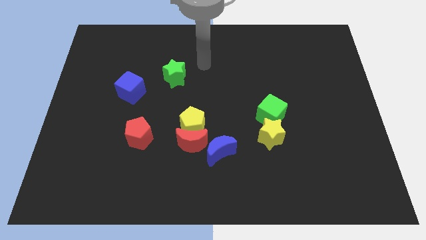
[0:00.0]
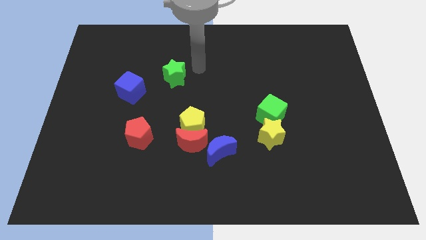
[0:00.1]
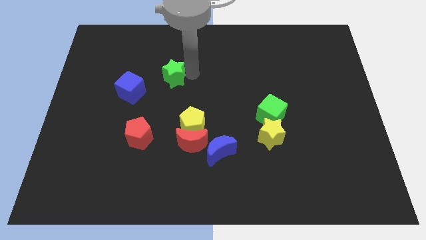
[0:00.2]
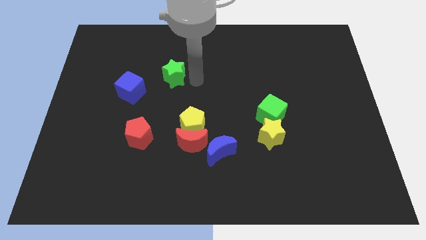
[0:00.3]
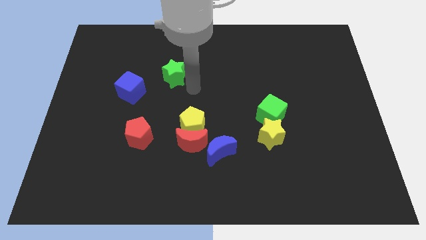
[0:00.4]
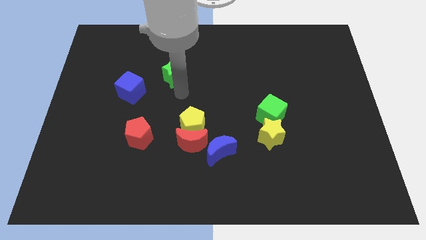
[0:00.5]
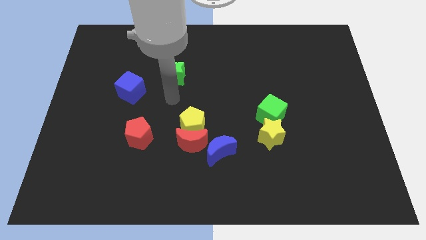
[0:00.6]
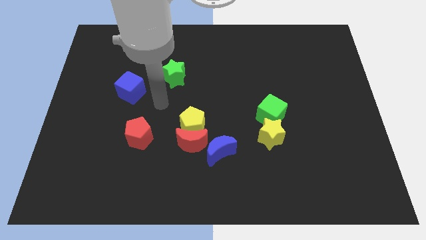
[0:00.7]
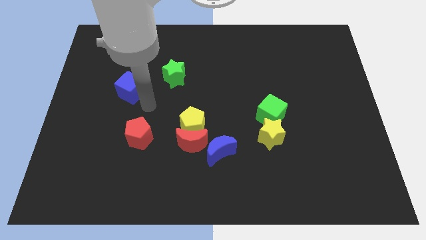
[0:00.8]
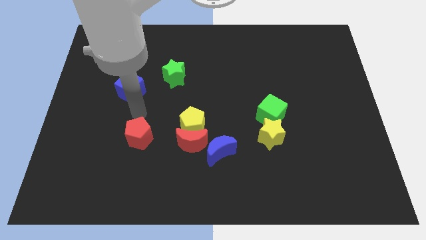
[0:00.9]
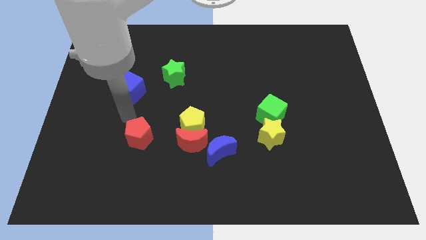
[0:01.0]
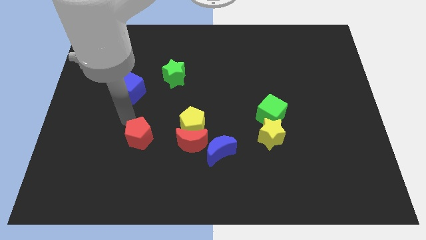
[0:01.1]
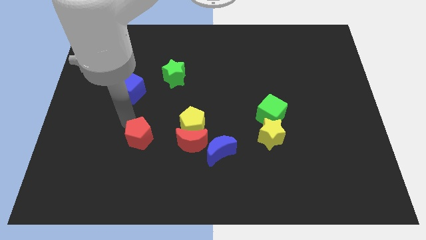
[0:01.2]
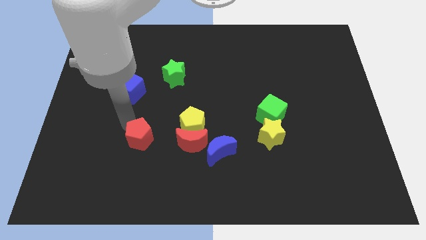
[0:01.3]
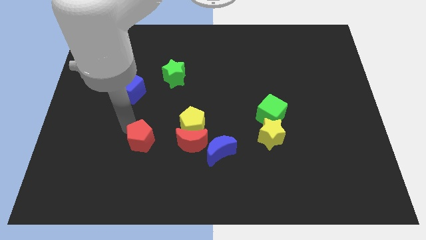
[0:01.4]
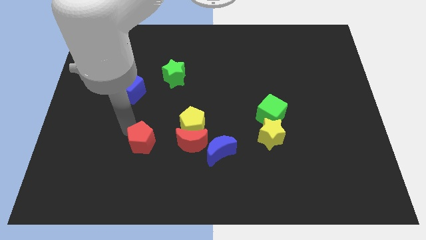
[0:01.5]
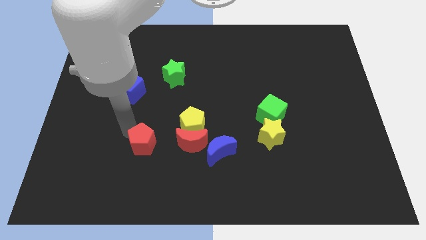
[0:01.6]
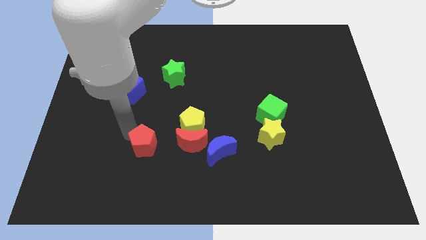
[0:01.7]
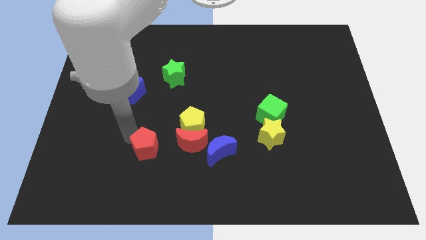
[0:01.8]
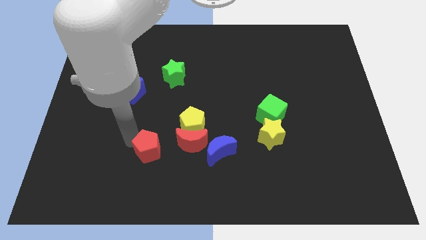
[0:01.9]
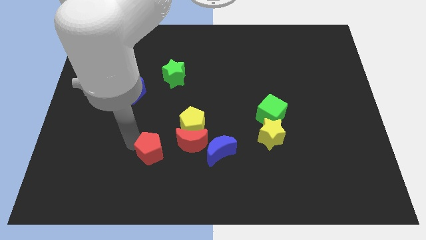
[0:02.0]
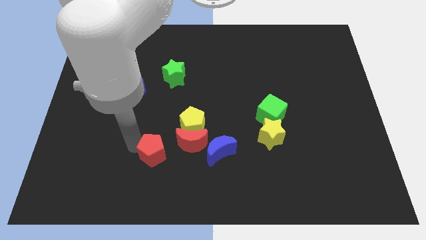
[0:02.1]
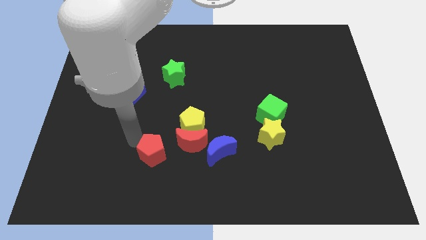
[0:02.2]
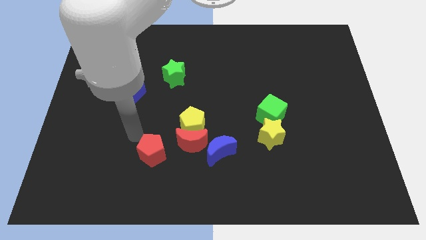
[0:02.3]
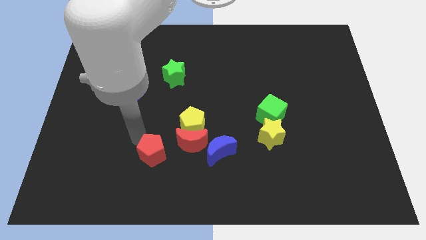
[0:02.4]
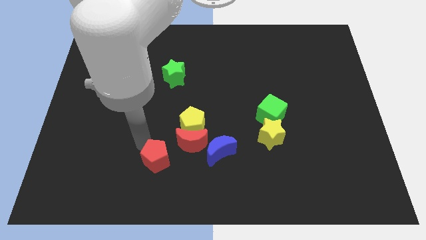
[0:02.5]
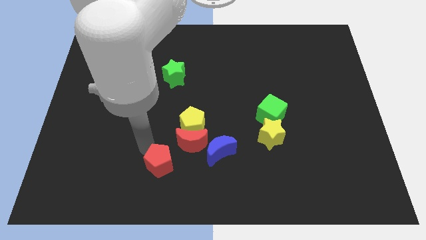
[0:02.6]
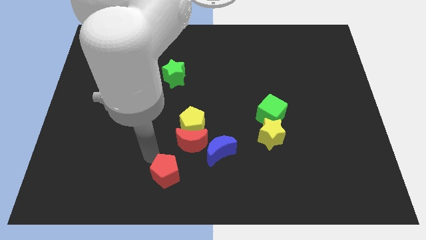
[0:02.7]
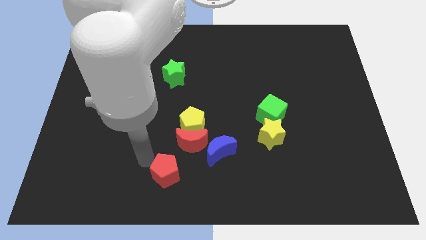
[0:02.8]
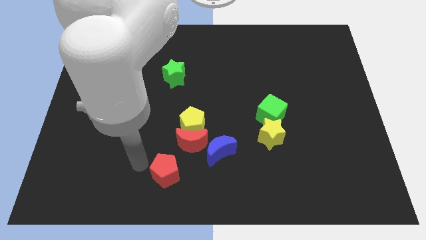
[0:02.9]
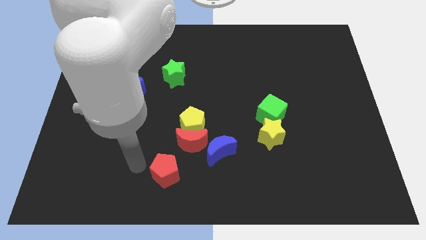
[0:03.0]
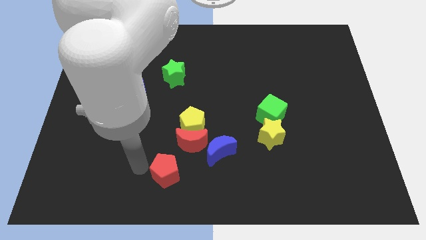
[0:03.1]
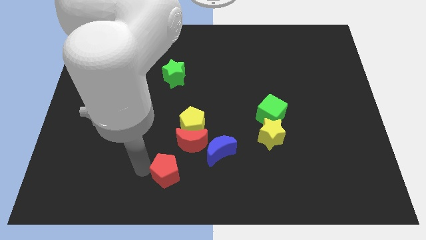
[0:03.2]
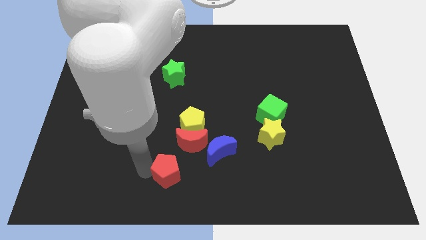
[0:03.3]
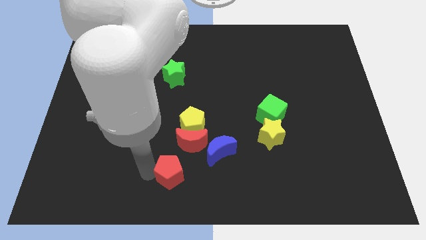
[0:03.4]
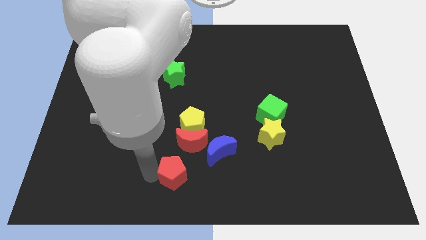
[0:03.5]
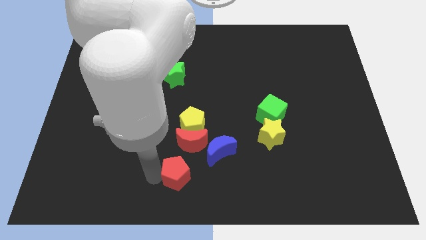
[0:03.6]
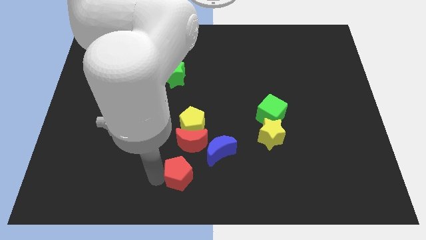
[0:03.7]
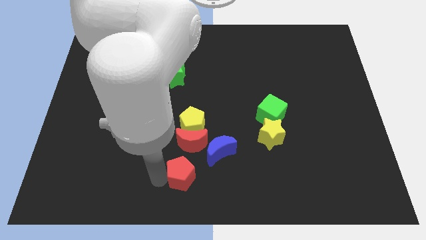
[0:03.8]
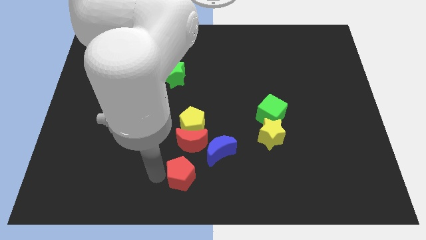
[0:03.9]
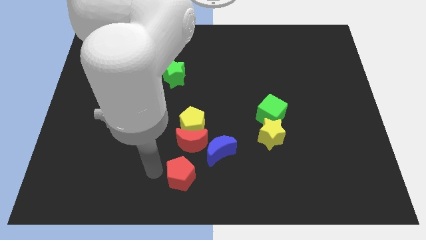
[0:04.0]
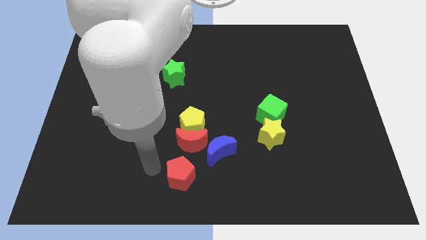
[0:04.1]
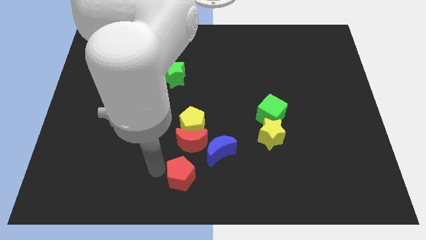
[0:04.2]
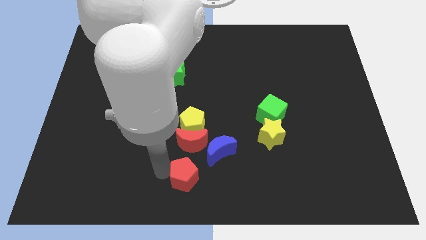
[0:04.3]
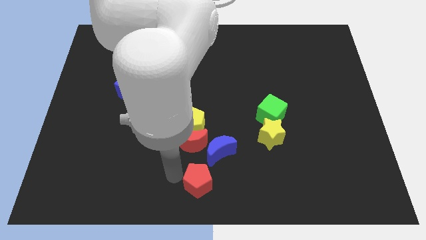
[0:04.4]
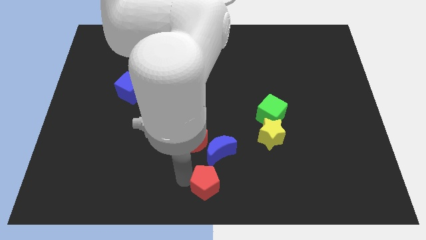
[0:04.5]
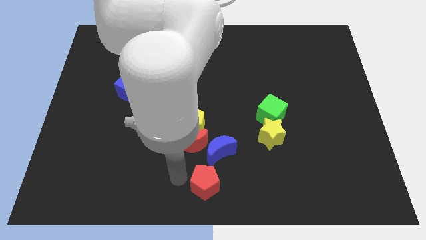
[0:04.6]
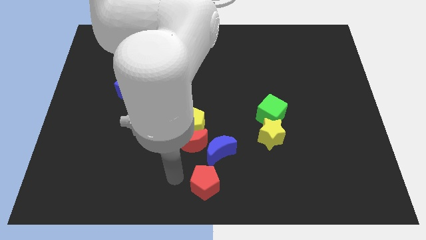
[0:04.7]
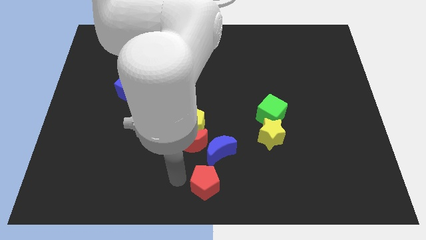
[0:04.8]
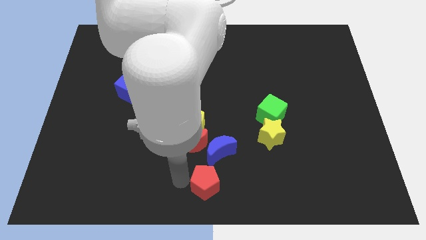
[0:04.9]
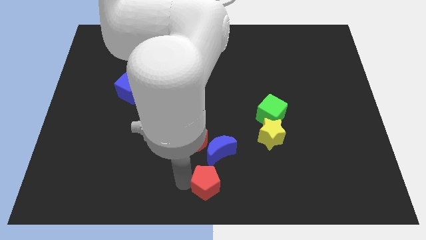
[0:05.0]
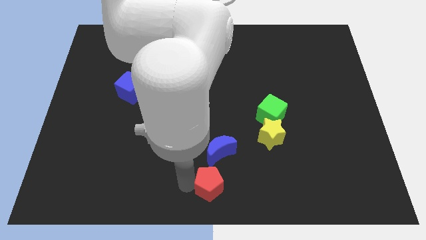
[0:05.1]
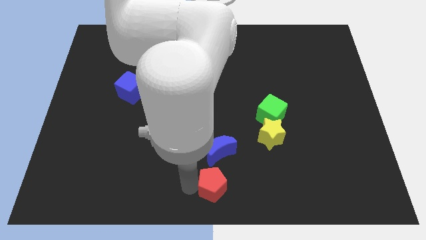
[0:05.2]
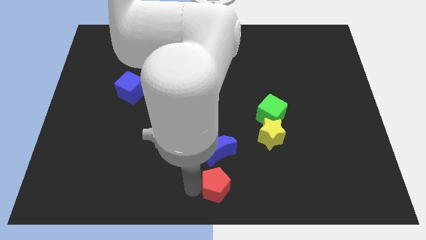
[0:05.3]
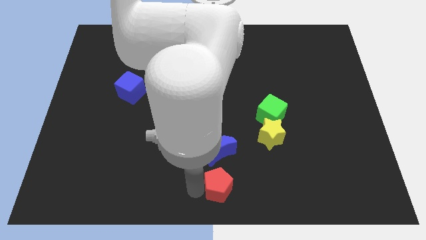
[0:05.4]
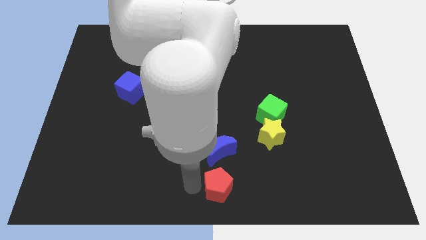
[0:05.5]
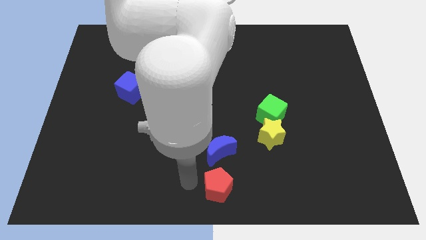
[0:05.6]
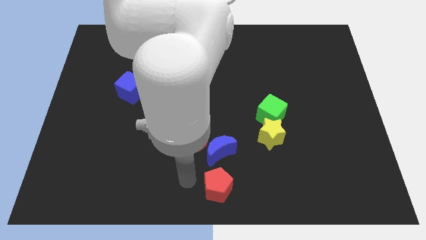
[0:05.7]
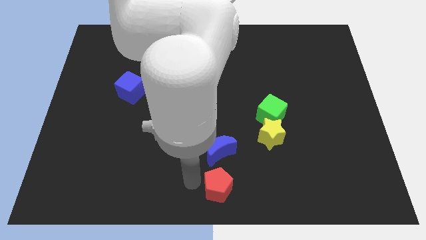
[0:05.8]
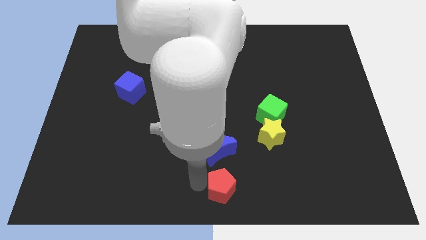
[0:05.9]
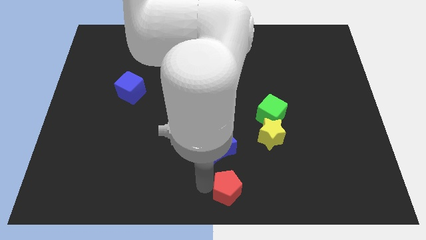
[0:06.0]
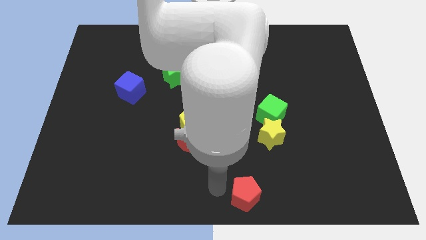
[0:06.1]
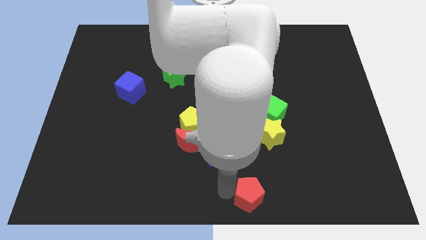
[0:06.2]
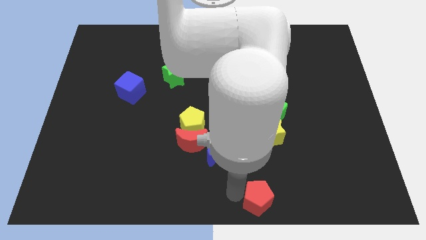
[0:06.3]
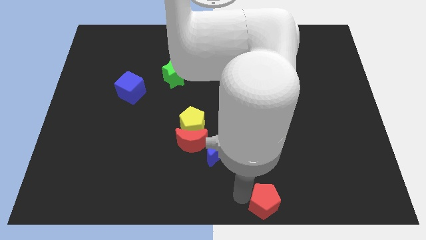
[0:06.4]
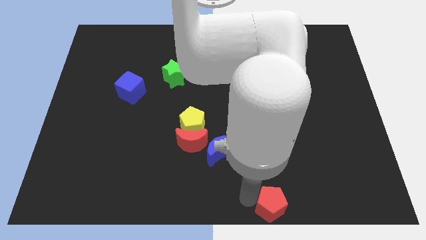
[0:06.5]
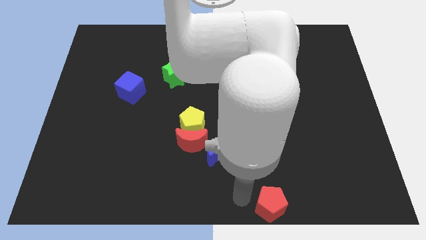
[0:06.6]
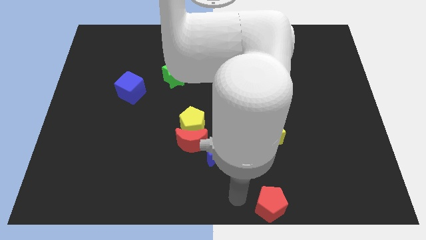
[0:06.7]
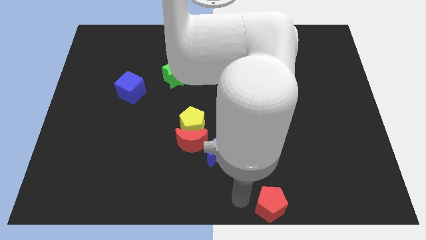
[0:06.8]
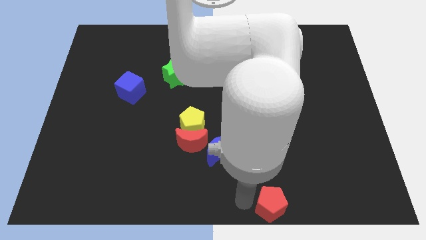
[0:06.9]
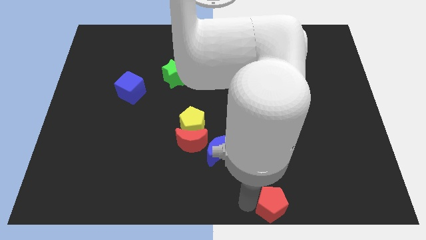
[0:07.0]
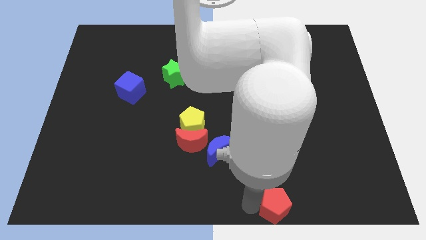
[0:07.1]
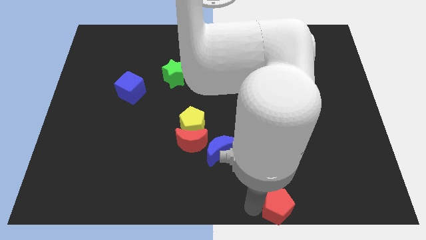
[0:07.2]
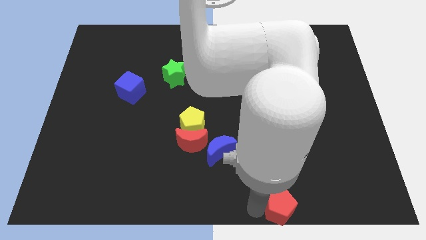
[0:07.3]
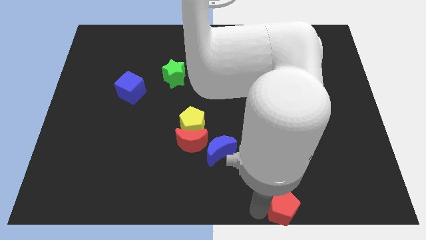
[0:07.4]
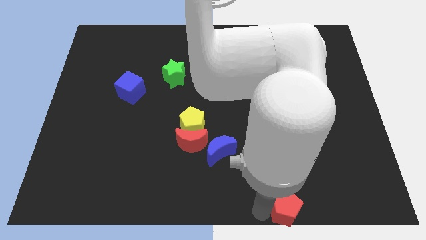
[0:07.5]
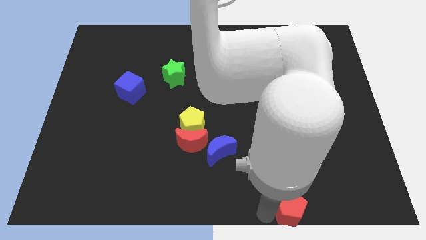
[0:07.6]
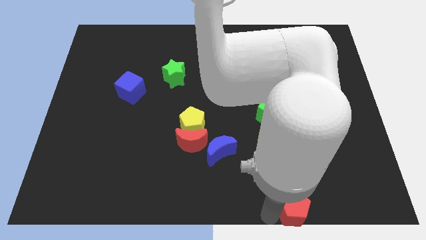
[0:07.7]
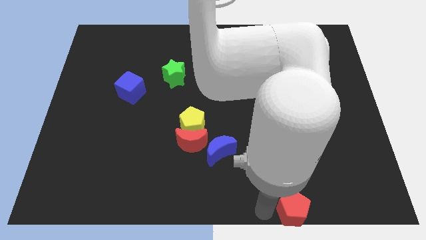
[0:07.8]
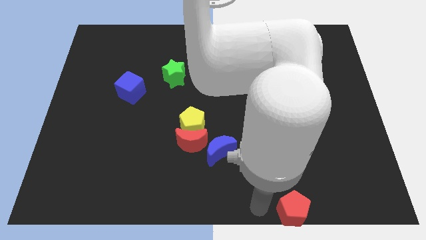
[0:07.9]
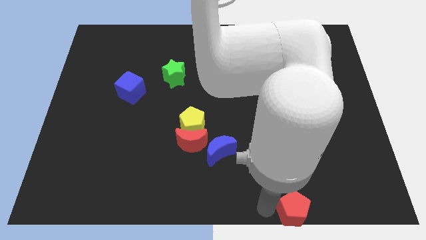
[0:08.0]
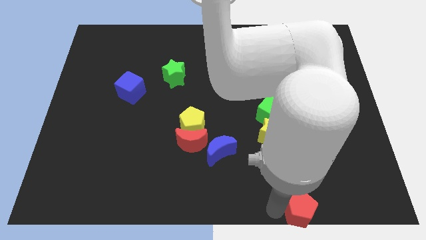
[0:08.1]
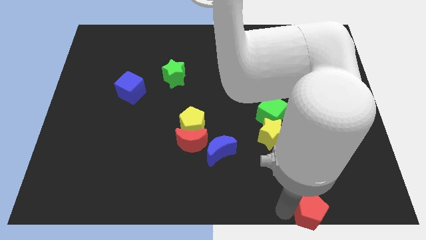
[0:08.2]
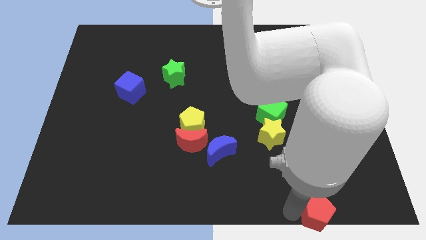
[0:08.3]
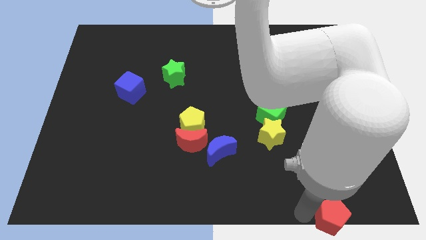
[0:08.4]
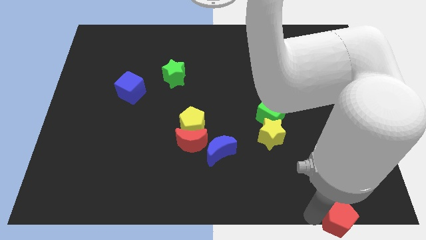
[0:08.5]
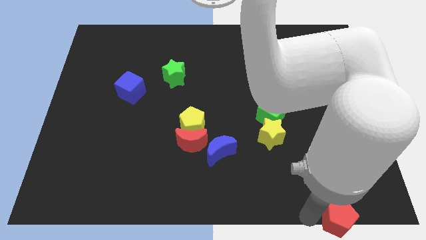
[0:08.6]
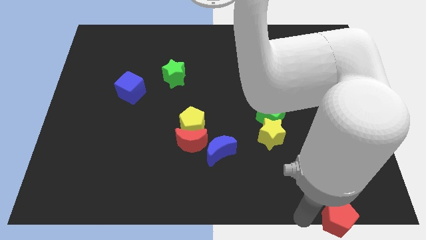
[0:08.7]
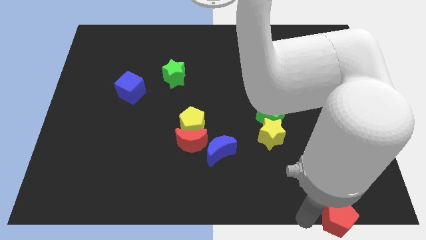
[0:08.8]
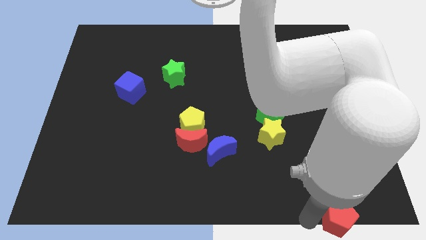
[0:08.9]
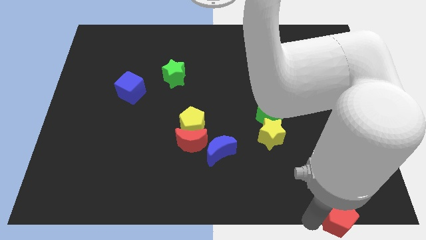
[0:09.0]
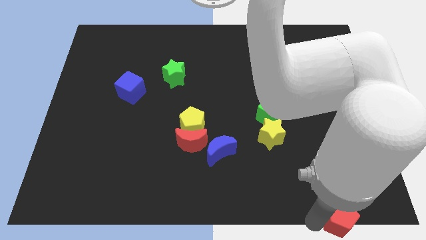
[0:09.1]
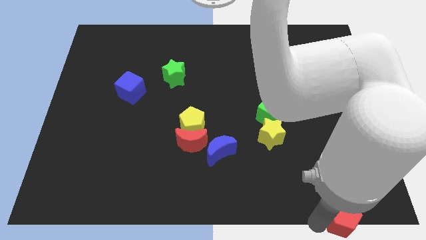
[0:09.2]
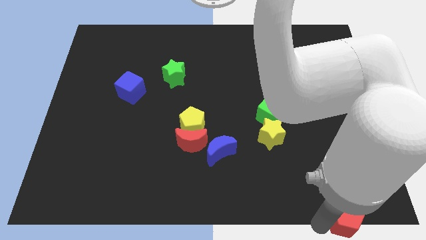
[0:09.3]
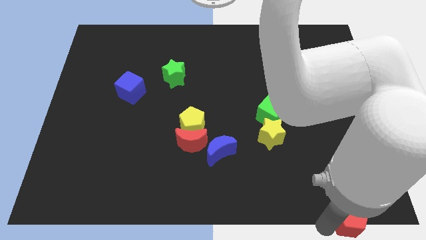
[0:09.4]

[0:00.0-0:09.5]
put the red pentagon to the bottom right corner
